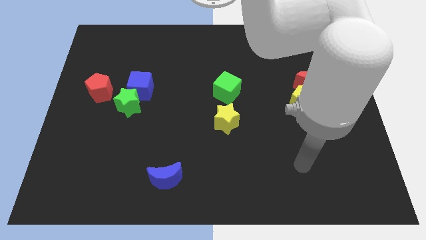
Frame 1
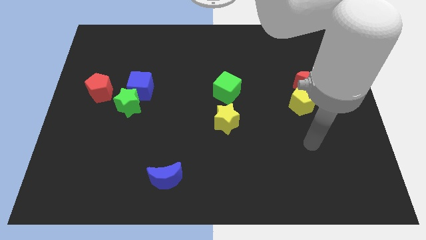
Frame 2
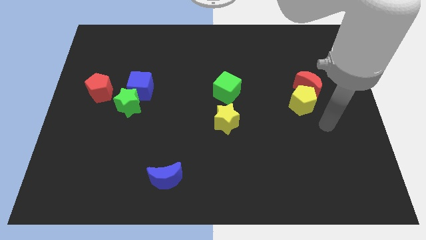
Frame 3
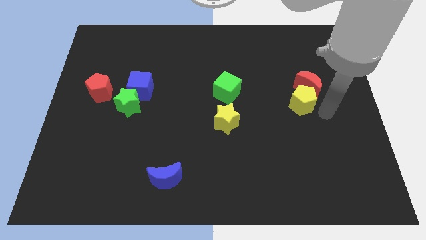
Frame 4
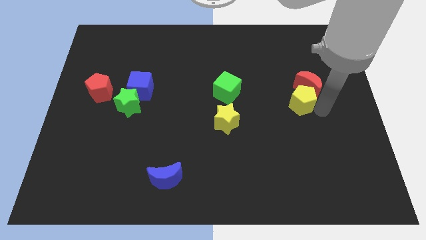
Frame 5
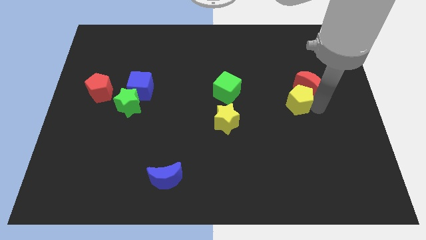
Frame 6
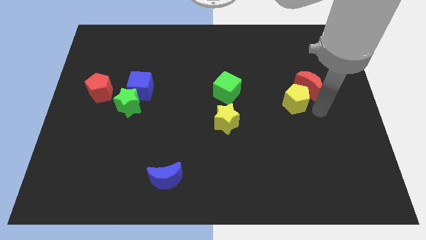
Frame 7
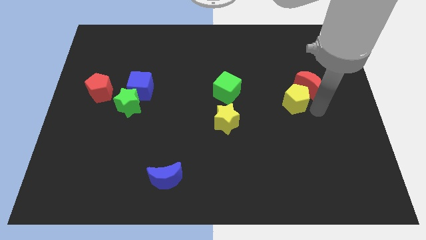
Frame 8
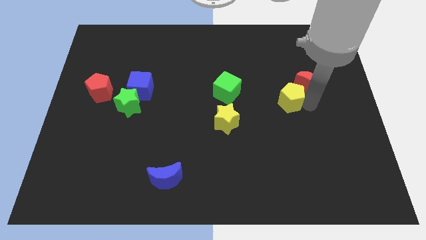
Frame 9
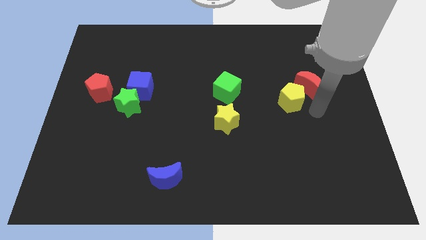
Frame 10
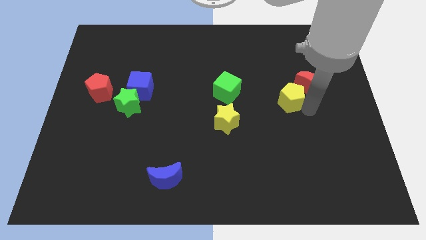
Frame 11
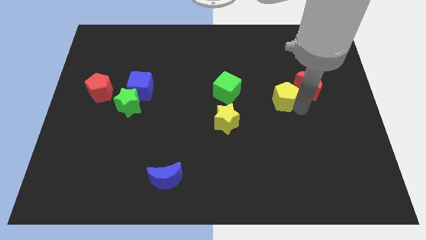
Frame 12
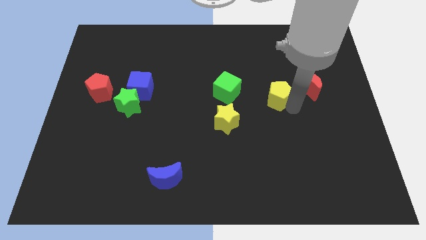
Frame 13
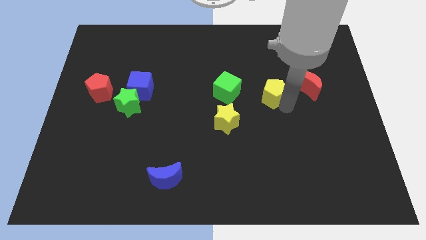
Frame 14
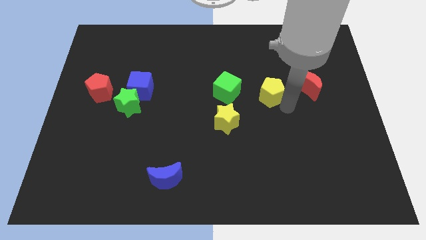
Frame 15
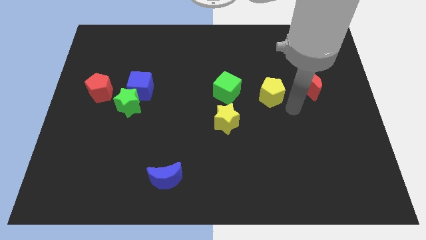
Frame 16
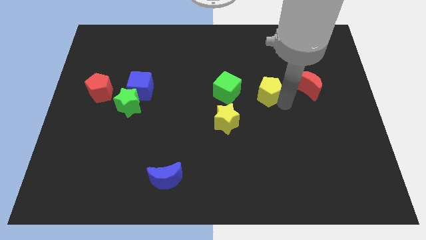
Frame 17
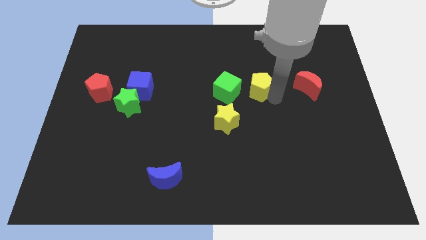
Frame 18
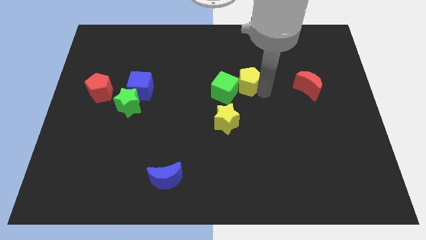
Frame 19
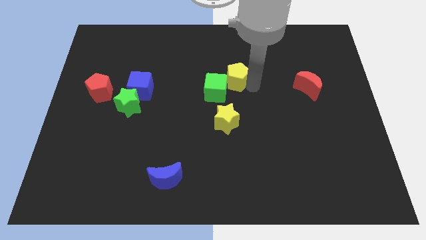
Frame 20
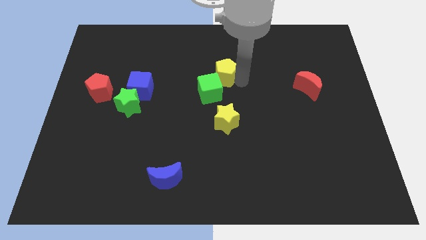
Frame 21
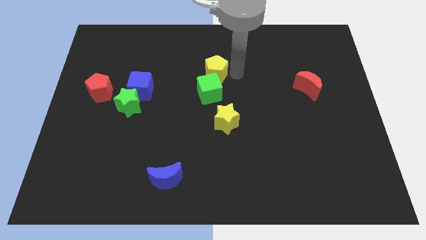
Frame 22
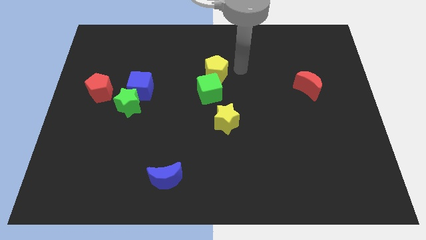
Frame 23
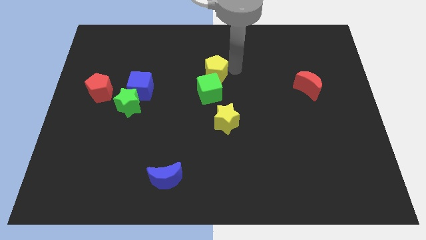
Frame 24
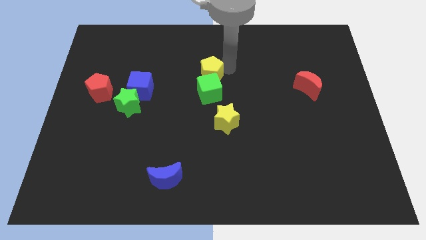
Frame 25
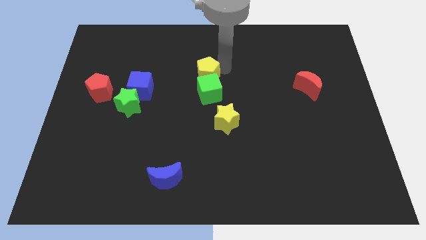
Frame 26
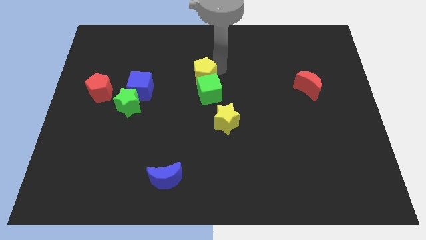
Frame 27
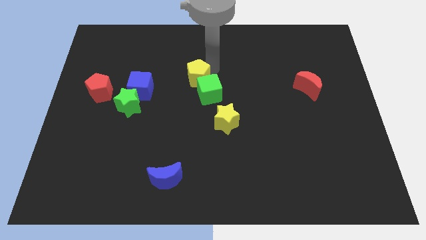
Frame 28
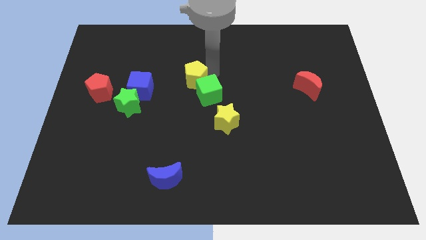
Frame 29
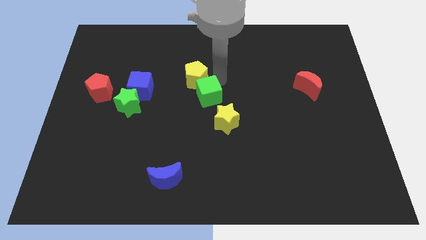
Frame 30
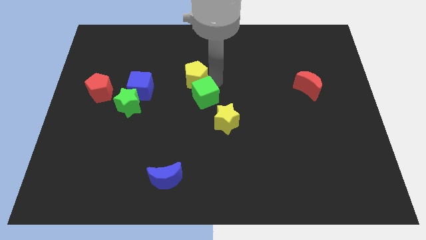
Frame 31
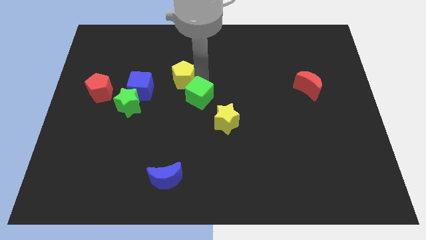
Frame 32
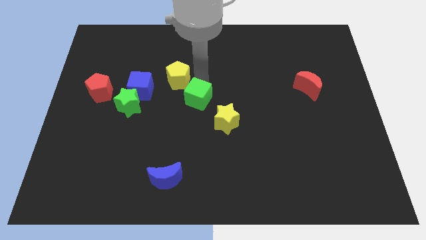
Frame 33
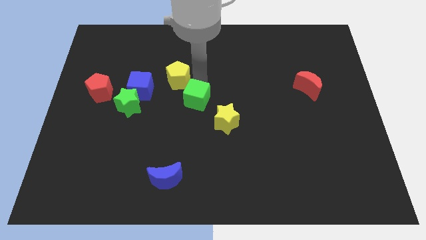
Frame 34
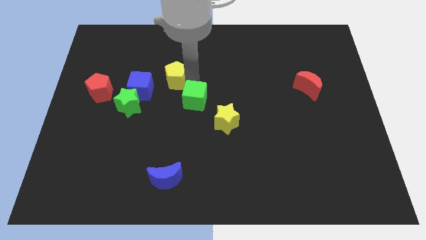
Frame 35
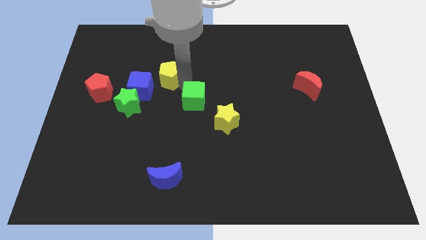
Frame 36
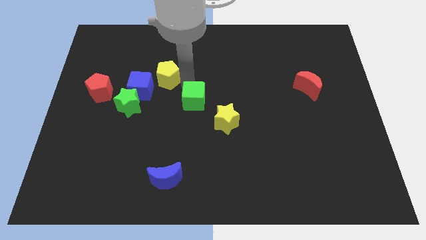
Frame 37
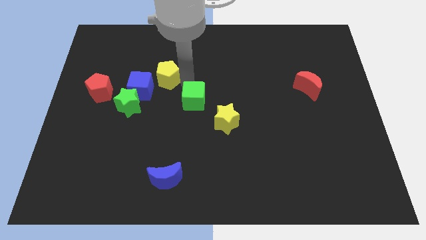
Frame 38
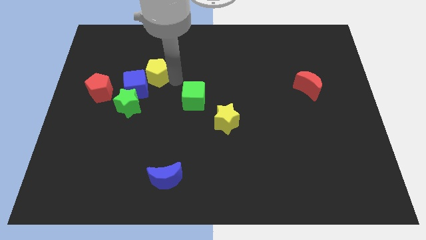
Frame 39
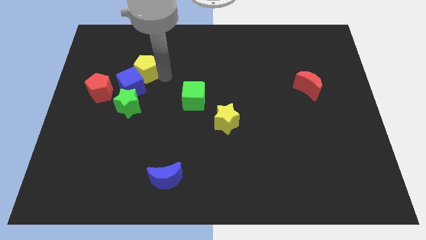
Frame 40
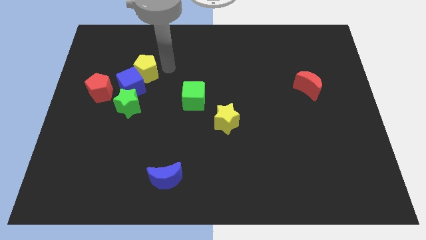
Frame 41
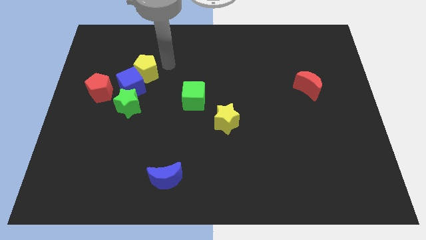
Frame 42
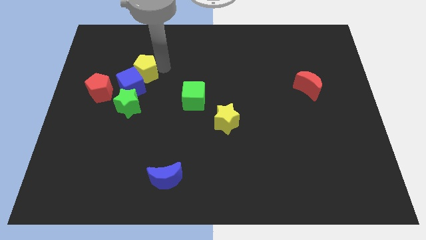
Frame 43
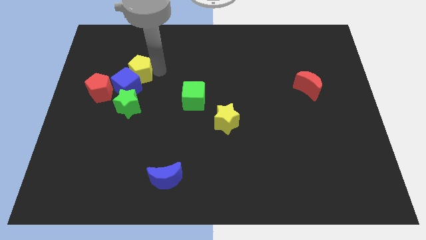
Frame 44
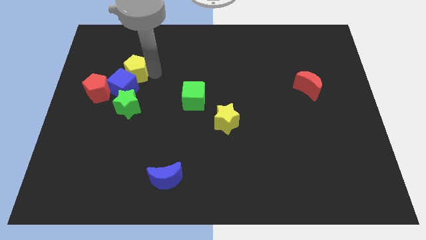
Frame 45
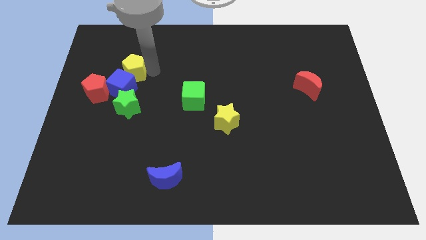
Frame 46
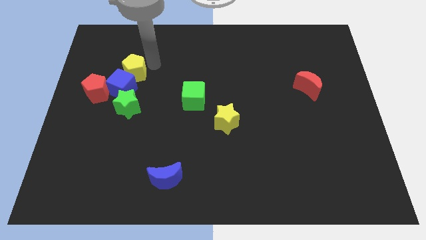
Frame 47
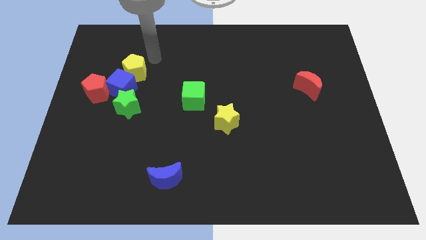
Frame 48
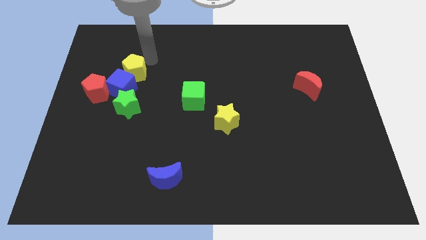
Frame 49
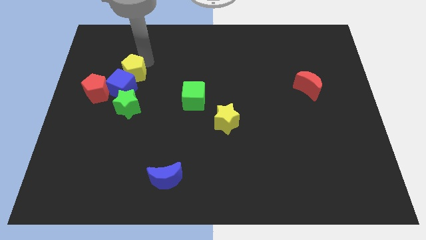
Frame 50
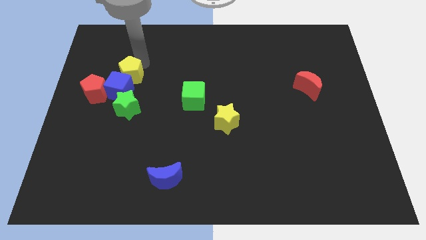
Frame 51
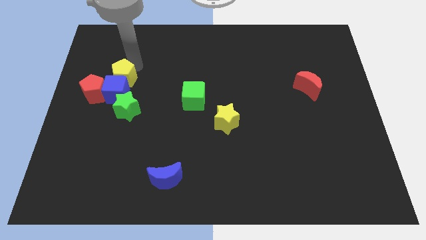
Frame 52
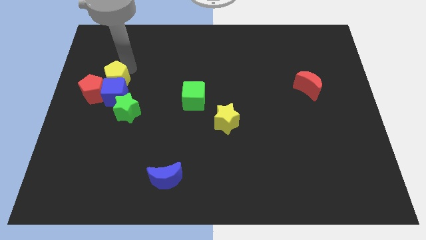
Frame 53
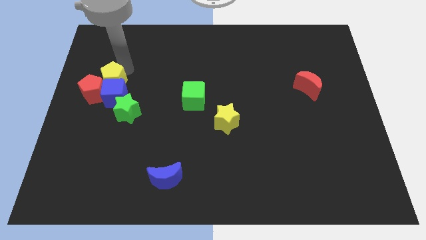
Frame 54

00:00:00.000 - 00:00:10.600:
slide the yellow pentagon close to the red pentagon

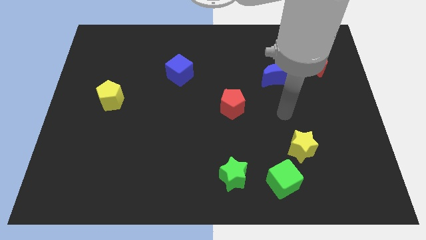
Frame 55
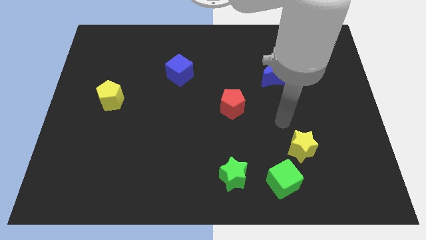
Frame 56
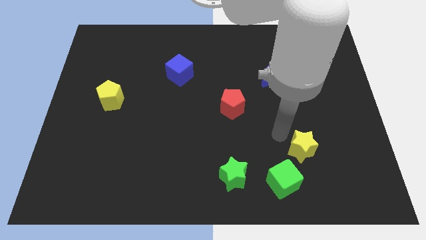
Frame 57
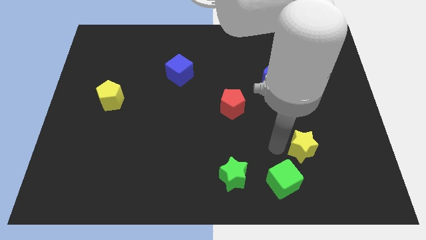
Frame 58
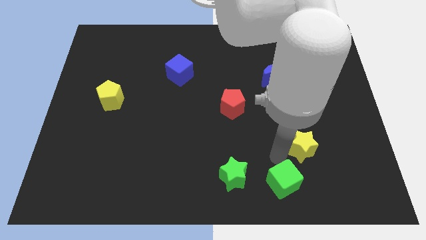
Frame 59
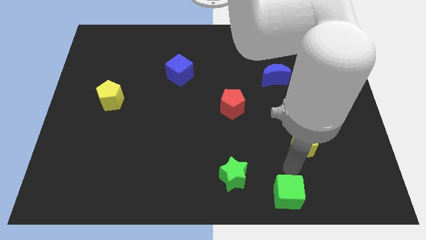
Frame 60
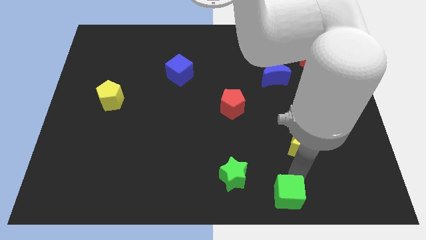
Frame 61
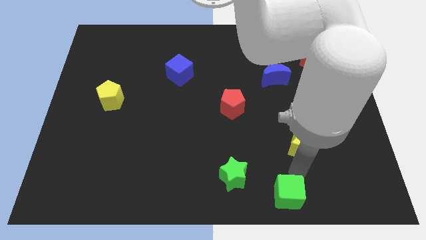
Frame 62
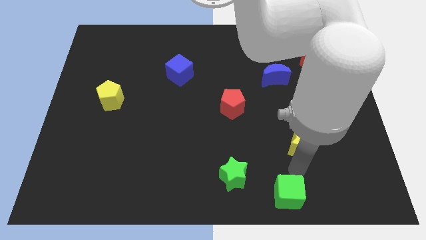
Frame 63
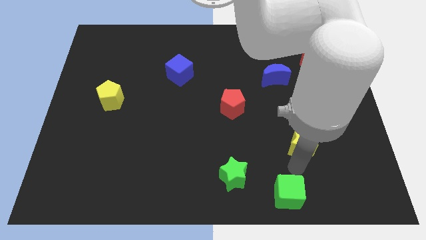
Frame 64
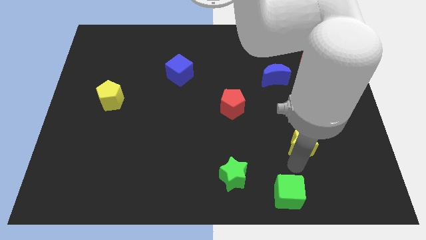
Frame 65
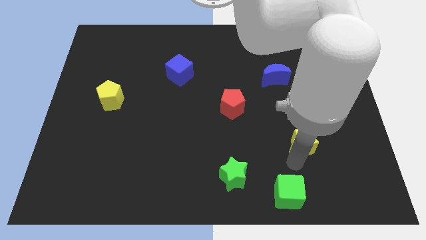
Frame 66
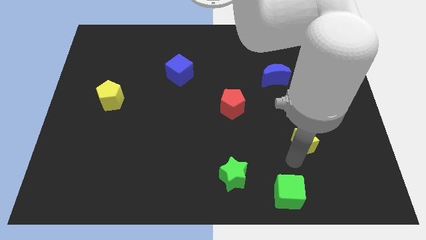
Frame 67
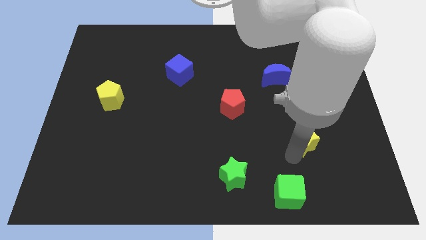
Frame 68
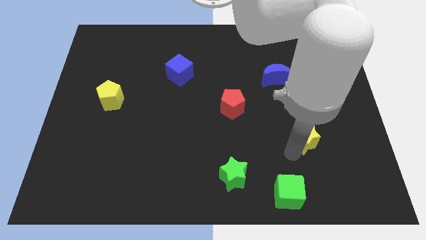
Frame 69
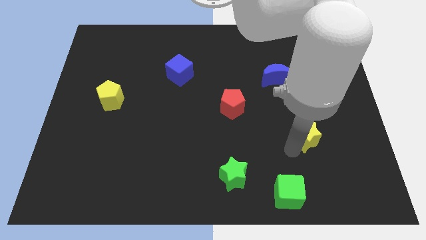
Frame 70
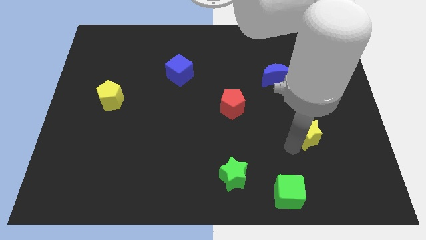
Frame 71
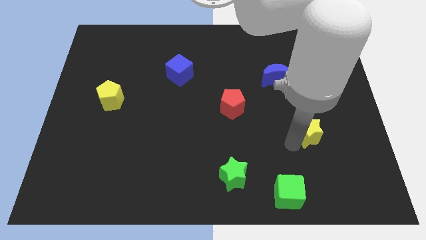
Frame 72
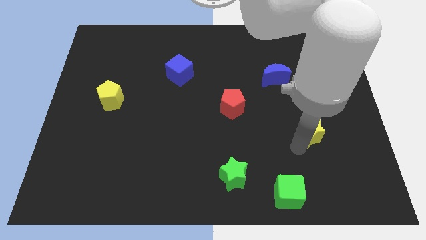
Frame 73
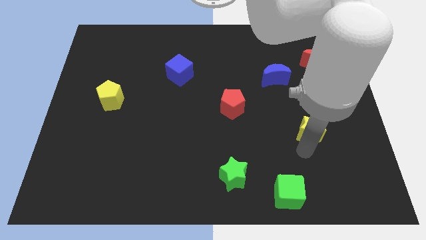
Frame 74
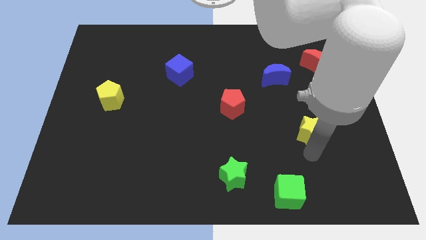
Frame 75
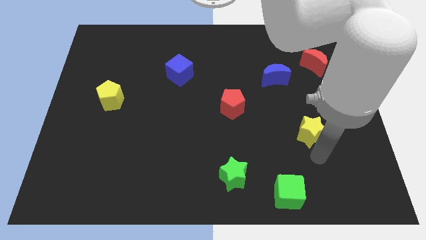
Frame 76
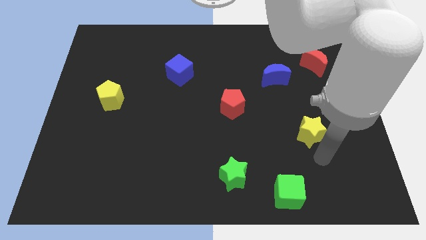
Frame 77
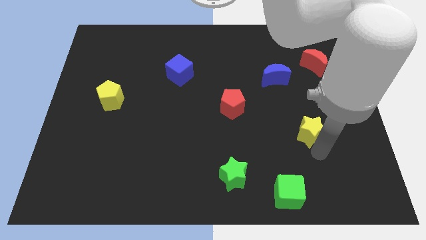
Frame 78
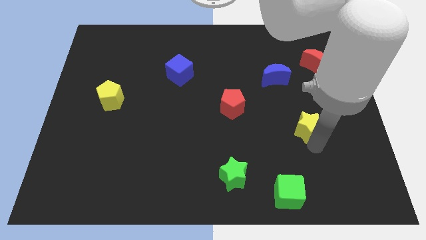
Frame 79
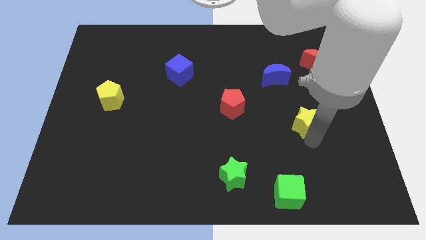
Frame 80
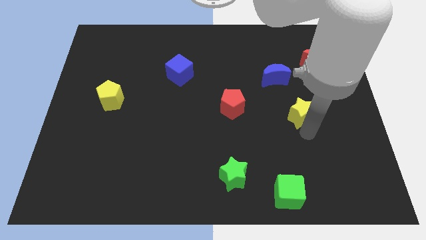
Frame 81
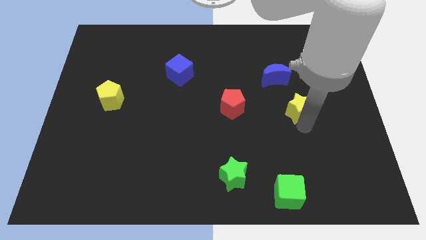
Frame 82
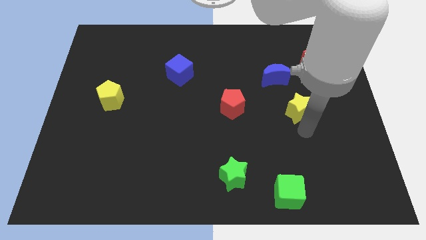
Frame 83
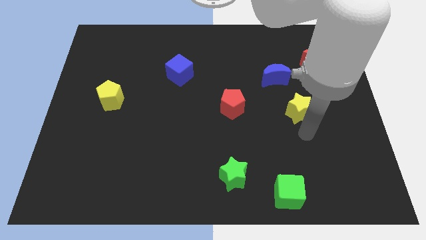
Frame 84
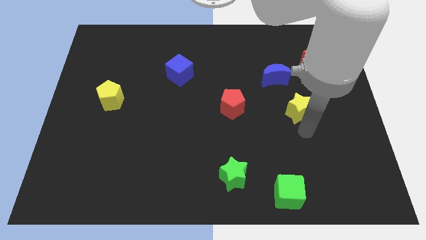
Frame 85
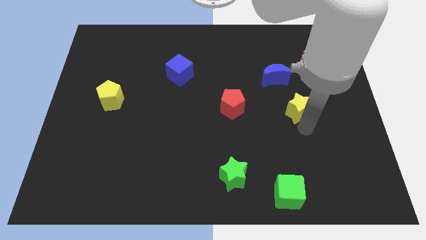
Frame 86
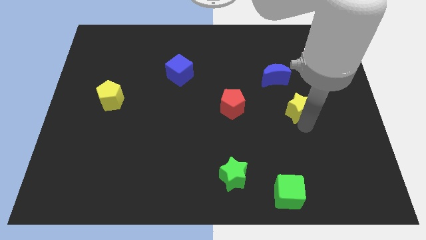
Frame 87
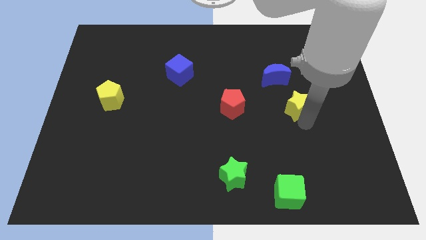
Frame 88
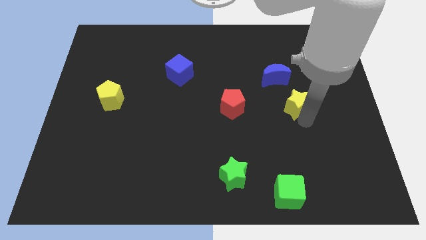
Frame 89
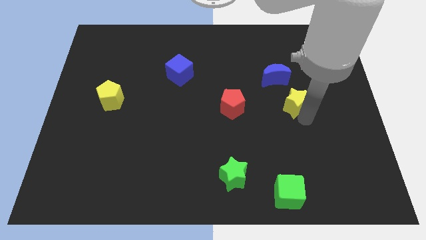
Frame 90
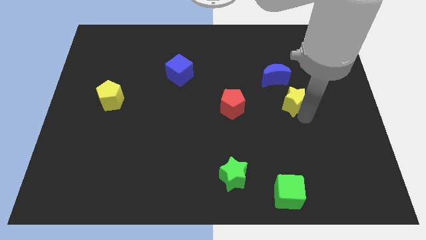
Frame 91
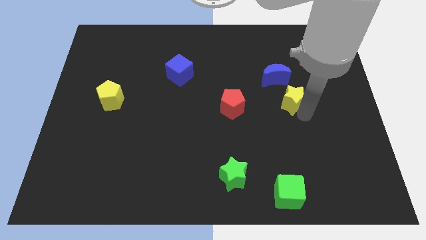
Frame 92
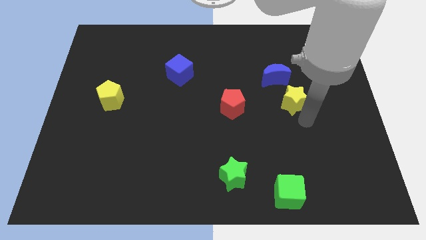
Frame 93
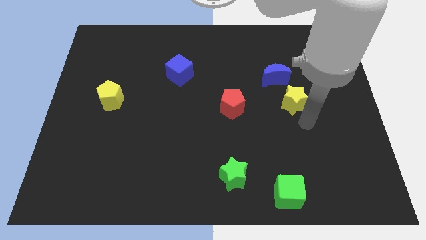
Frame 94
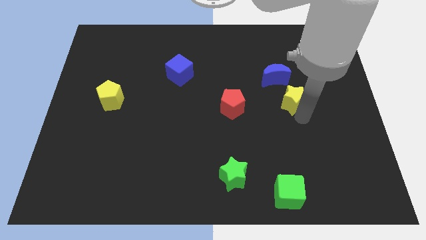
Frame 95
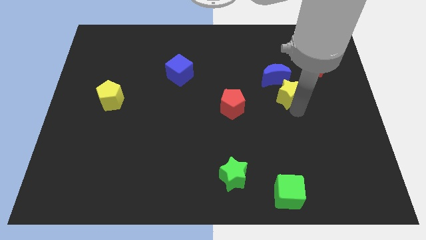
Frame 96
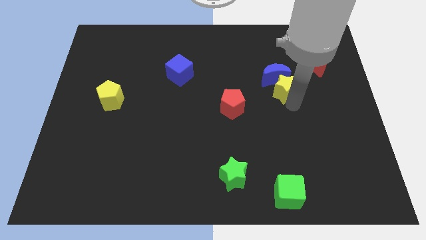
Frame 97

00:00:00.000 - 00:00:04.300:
put the yellow star to the blue moon
